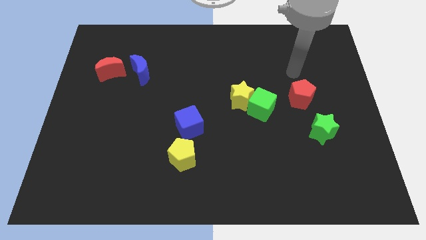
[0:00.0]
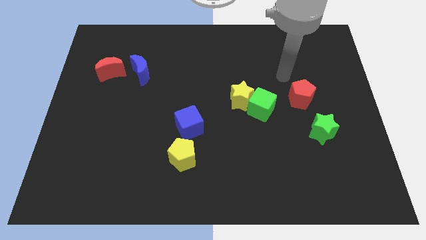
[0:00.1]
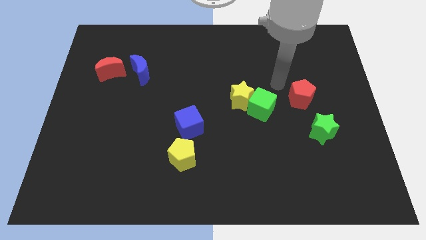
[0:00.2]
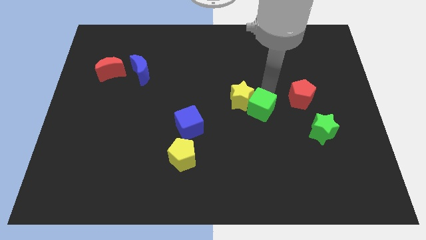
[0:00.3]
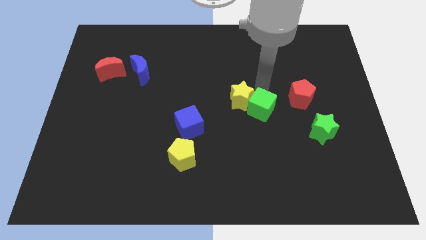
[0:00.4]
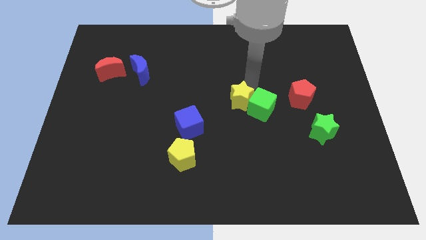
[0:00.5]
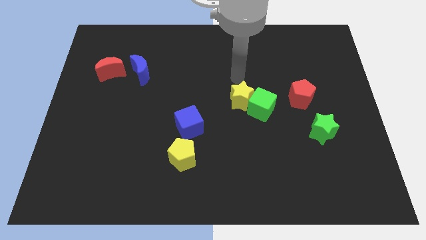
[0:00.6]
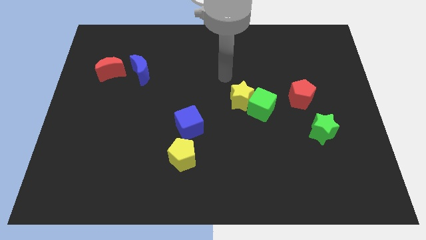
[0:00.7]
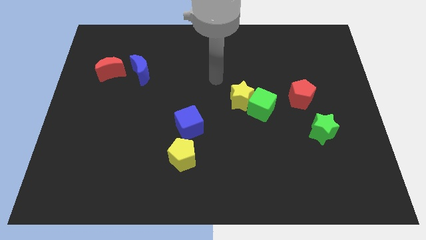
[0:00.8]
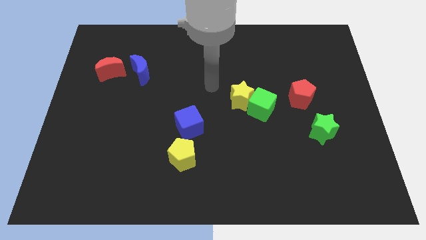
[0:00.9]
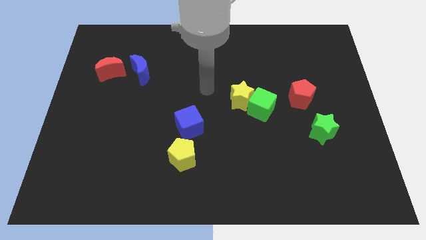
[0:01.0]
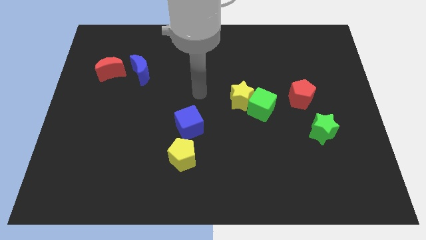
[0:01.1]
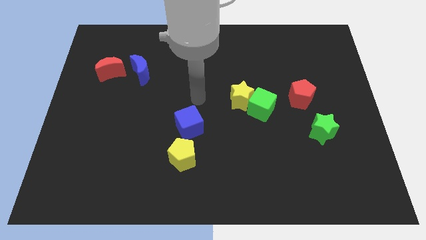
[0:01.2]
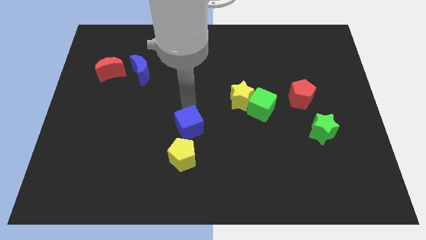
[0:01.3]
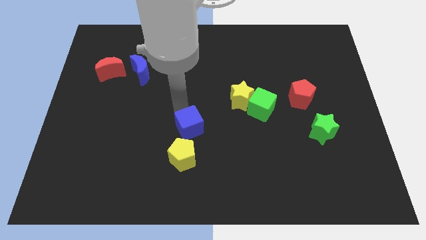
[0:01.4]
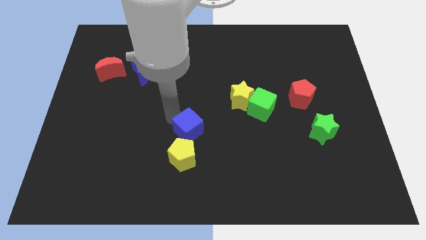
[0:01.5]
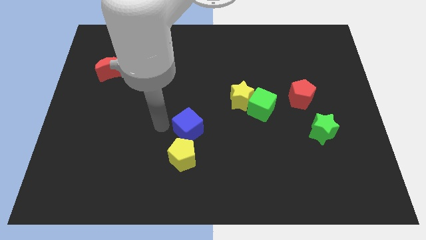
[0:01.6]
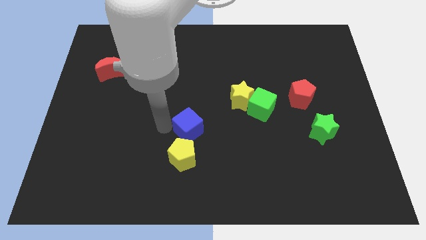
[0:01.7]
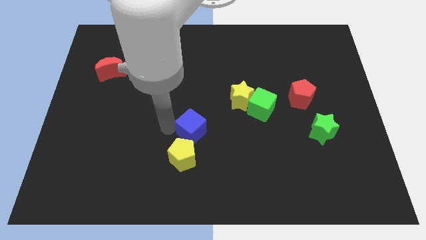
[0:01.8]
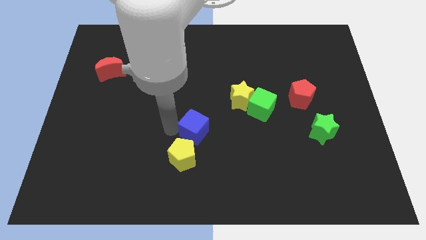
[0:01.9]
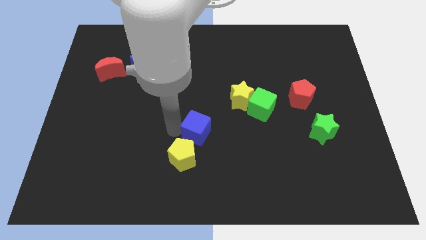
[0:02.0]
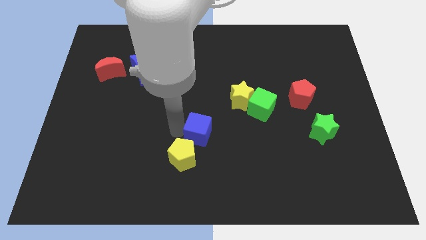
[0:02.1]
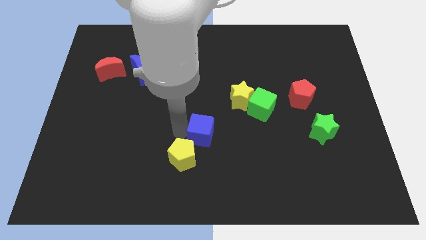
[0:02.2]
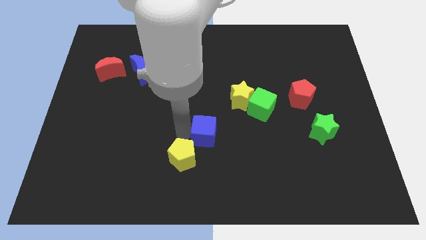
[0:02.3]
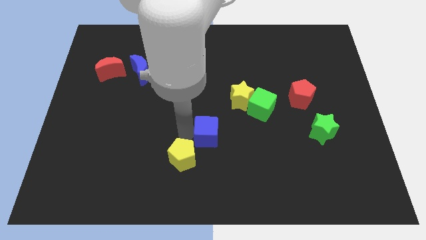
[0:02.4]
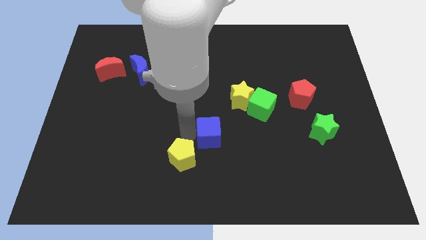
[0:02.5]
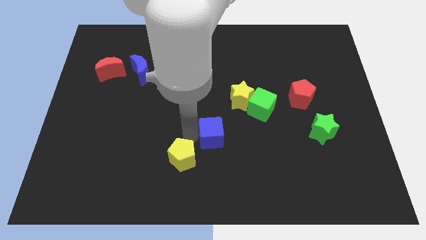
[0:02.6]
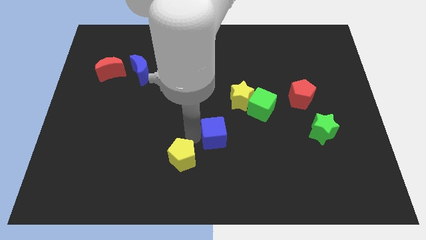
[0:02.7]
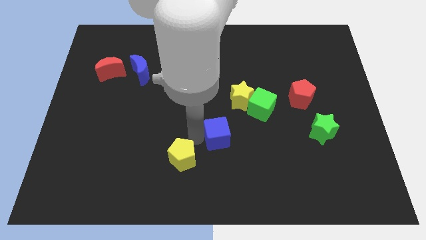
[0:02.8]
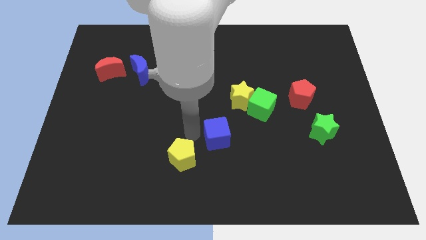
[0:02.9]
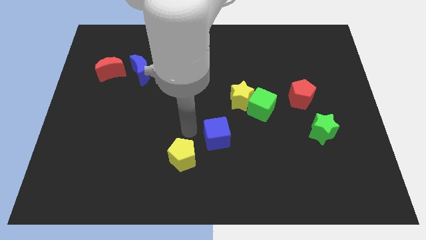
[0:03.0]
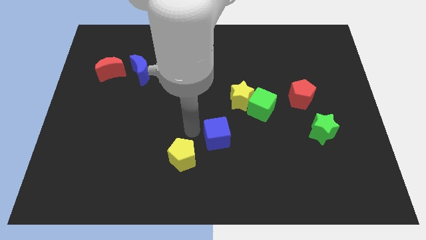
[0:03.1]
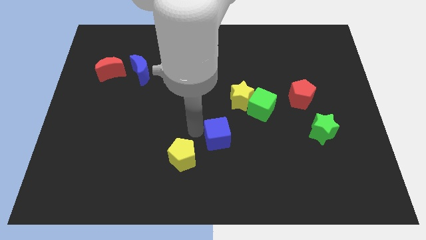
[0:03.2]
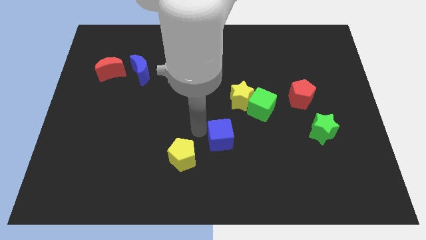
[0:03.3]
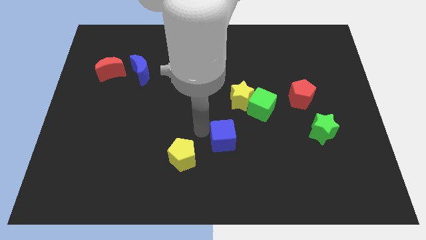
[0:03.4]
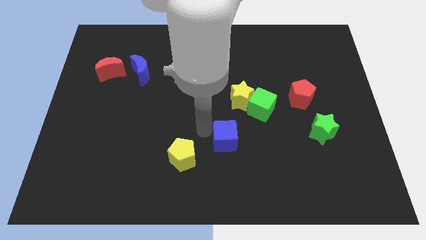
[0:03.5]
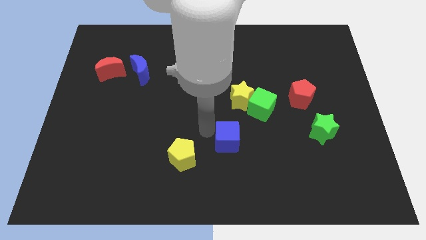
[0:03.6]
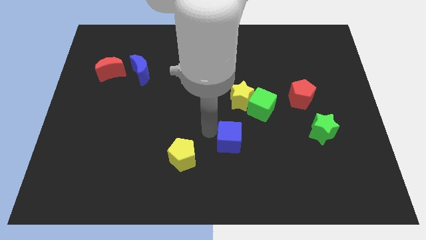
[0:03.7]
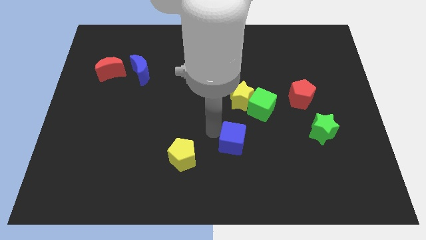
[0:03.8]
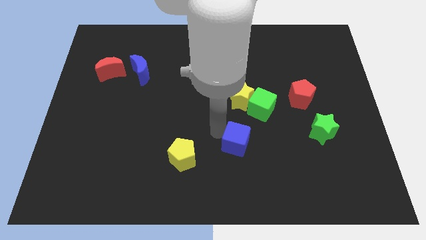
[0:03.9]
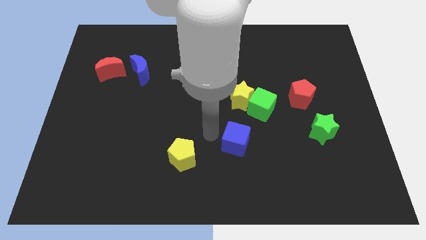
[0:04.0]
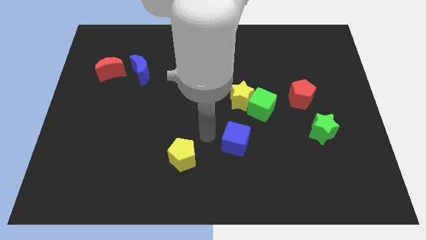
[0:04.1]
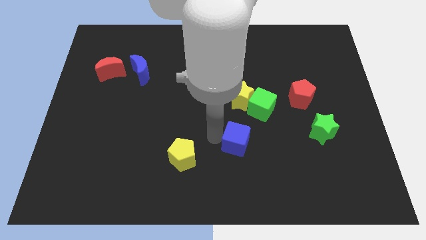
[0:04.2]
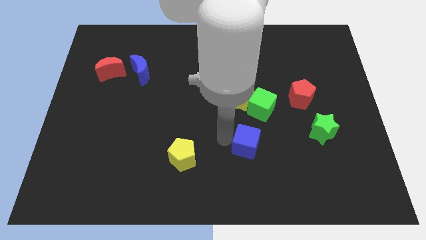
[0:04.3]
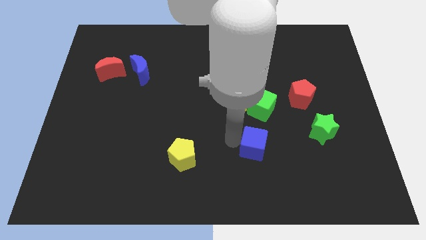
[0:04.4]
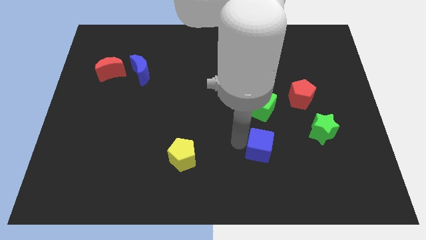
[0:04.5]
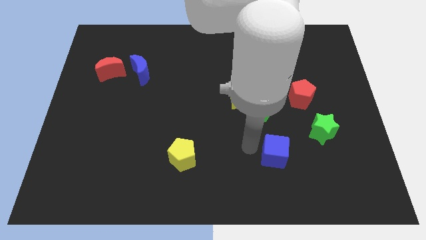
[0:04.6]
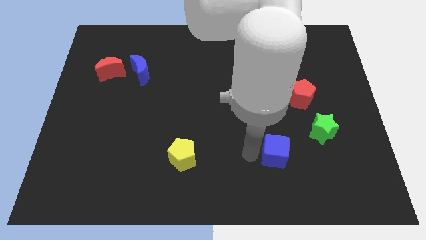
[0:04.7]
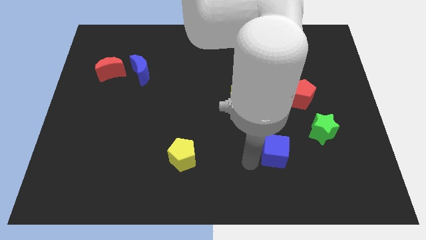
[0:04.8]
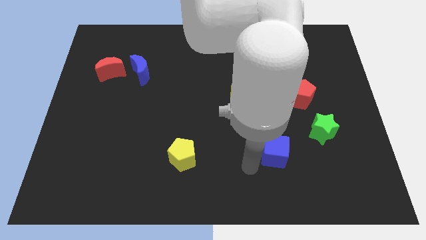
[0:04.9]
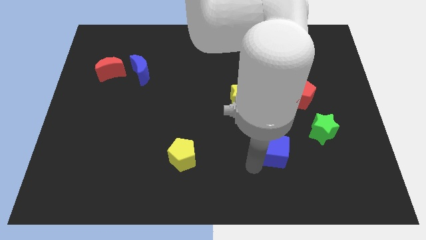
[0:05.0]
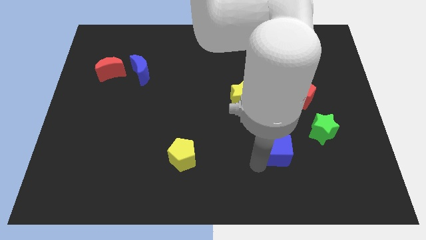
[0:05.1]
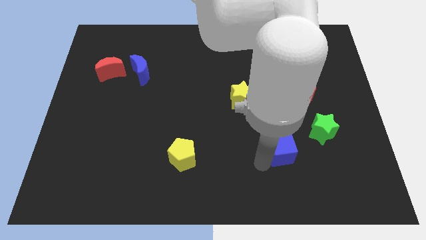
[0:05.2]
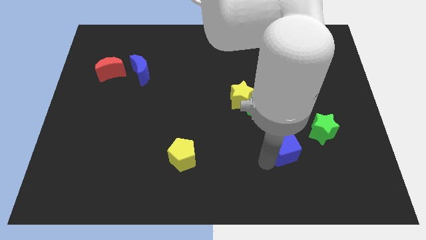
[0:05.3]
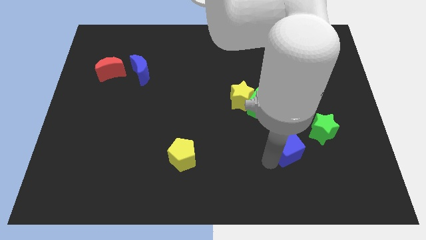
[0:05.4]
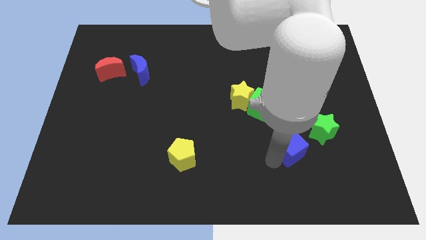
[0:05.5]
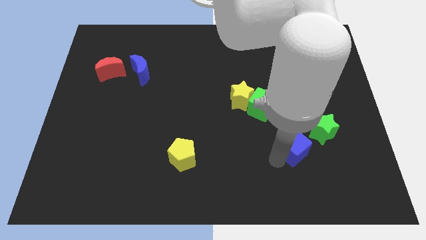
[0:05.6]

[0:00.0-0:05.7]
put the blue cube to the bottom of the red pentagon

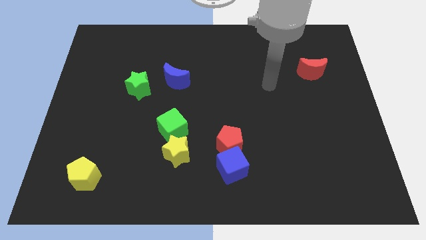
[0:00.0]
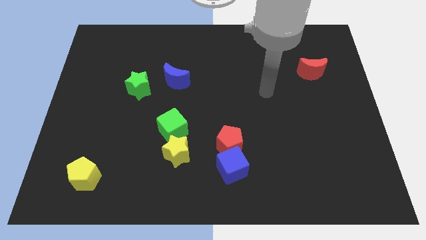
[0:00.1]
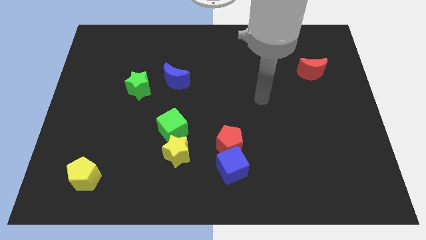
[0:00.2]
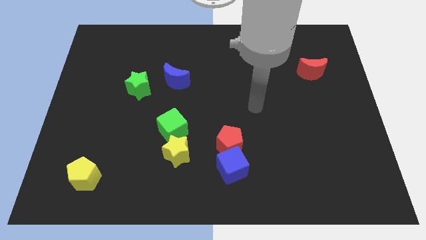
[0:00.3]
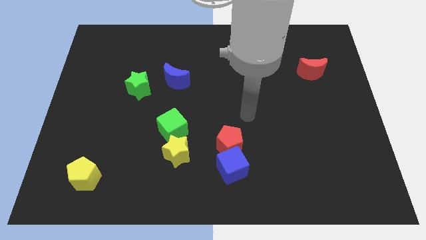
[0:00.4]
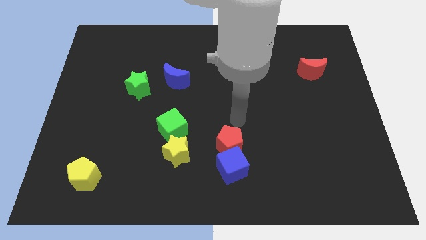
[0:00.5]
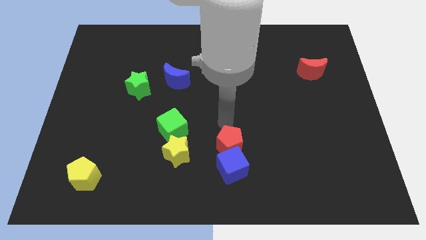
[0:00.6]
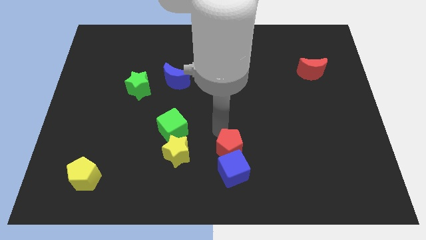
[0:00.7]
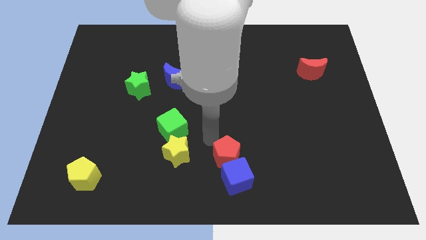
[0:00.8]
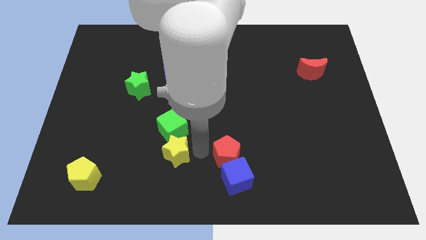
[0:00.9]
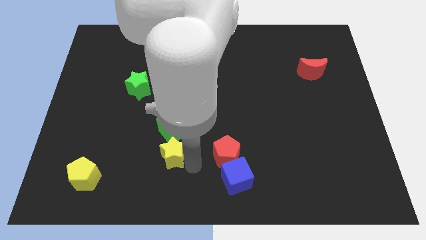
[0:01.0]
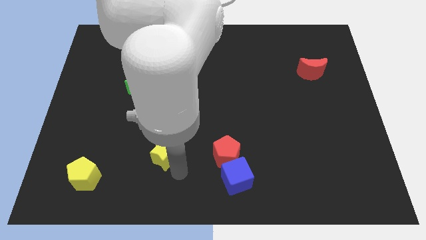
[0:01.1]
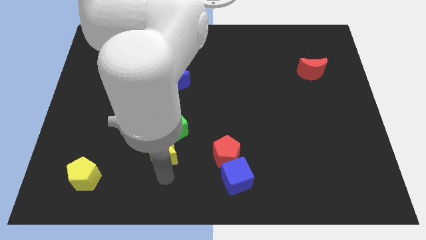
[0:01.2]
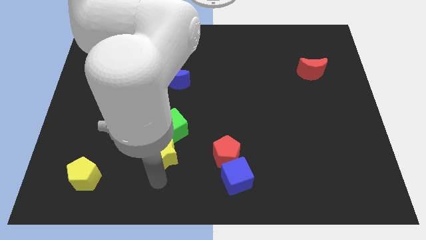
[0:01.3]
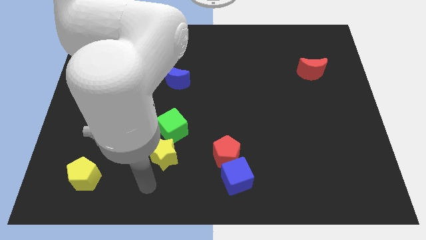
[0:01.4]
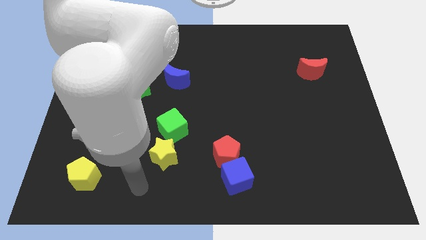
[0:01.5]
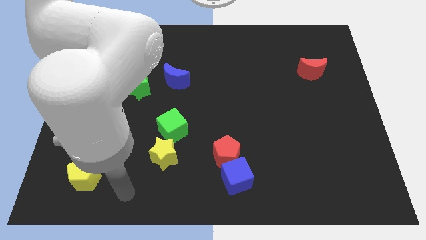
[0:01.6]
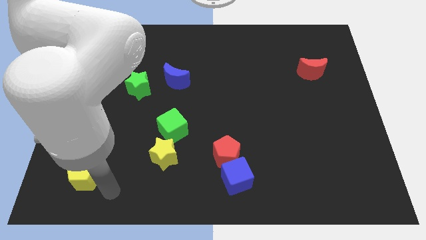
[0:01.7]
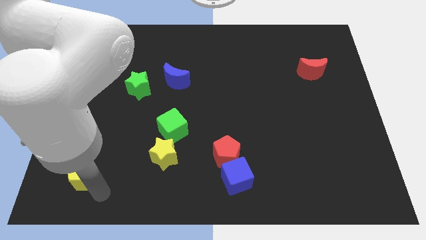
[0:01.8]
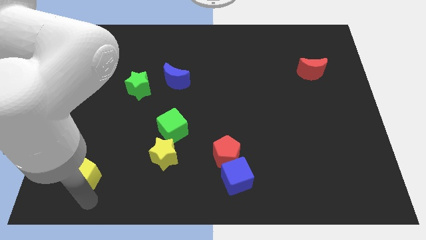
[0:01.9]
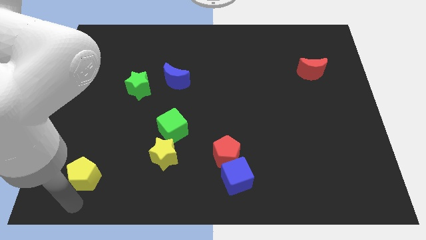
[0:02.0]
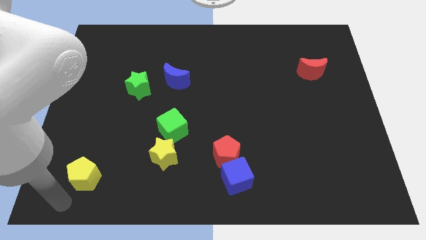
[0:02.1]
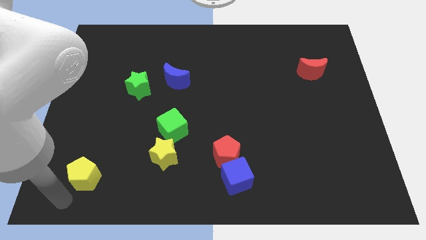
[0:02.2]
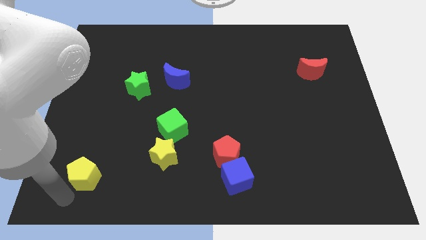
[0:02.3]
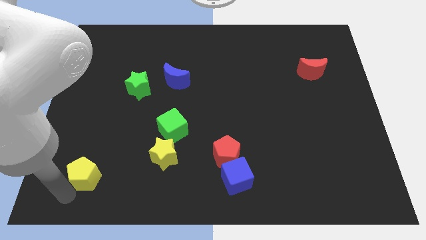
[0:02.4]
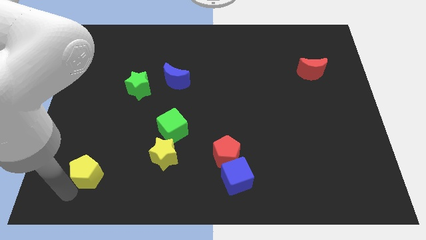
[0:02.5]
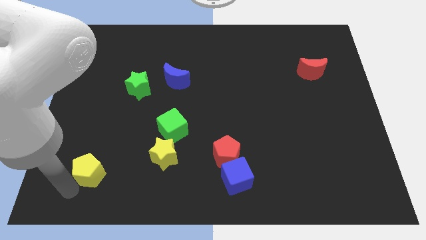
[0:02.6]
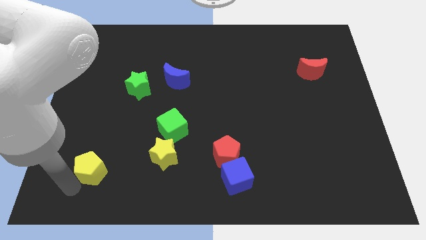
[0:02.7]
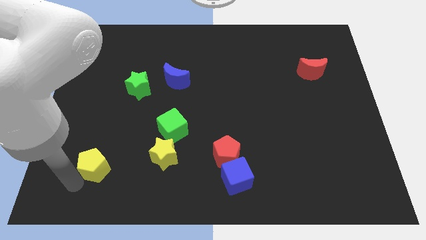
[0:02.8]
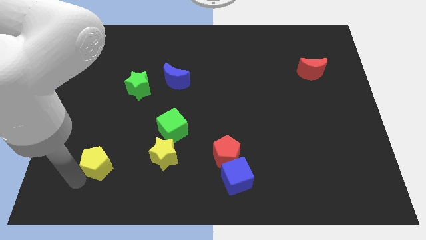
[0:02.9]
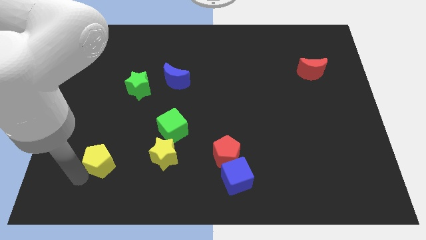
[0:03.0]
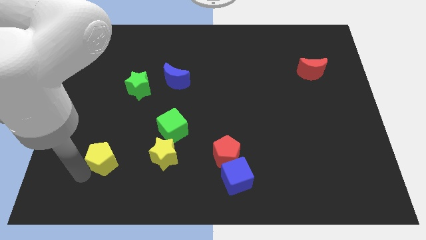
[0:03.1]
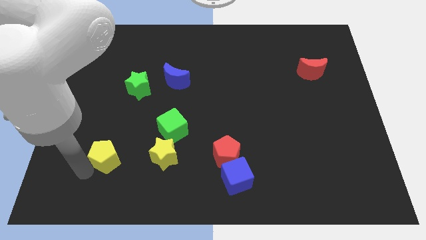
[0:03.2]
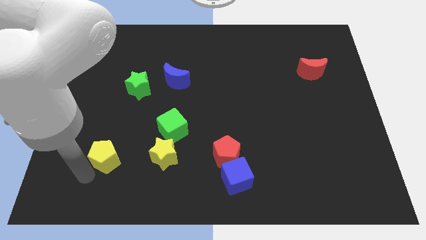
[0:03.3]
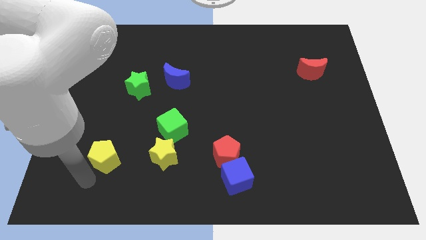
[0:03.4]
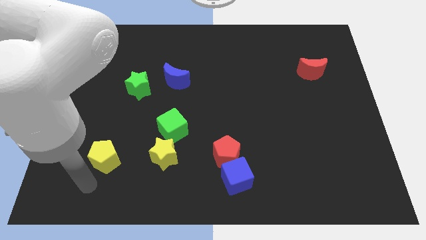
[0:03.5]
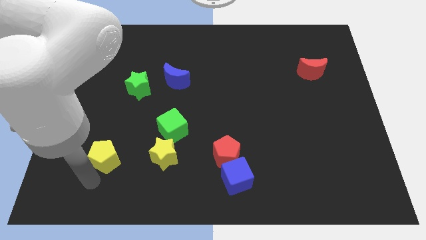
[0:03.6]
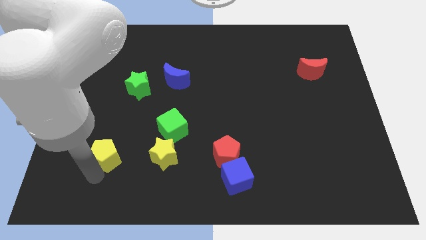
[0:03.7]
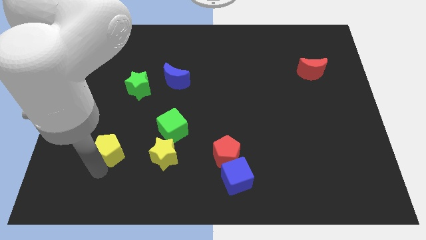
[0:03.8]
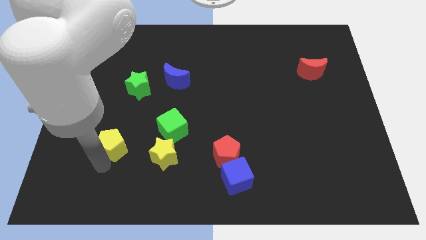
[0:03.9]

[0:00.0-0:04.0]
put the yellow pentagon just left of the green cube
